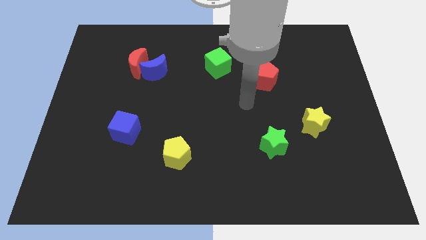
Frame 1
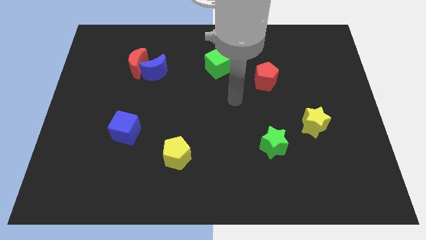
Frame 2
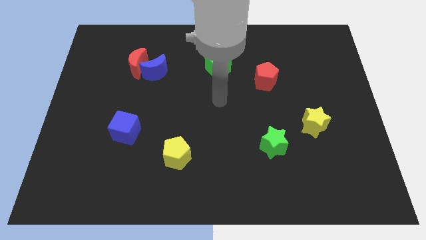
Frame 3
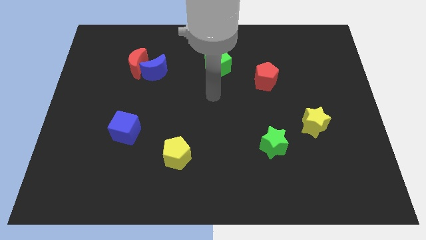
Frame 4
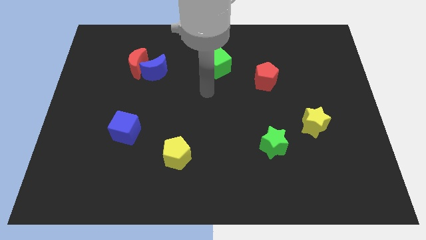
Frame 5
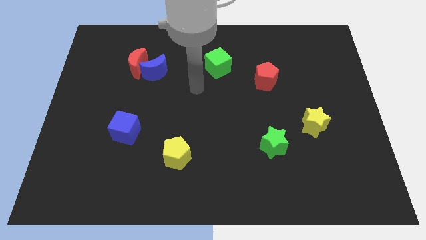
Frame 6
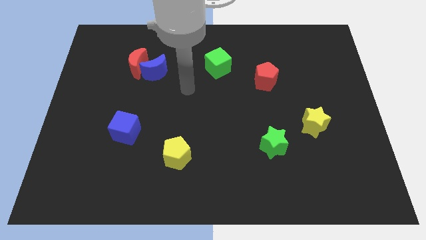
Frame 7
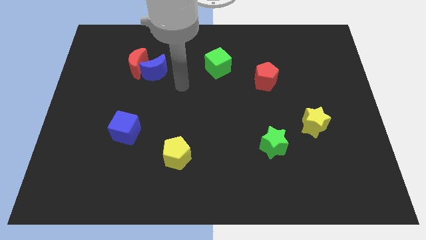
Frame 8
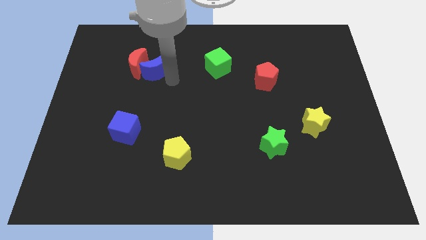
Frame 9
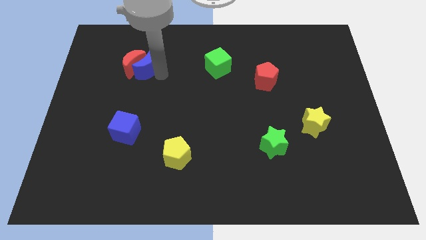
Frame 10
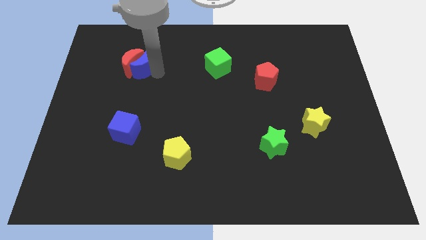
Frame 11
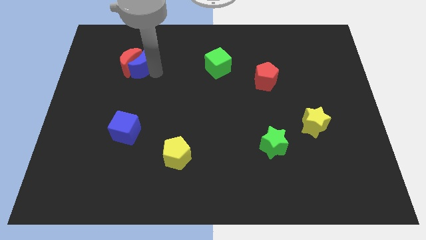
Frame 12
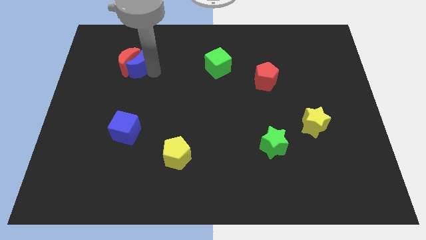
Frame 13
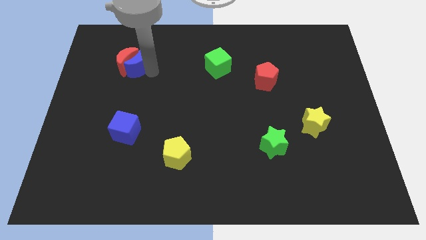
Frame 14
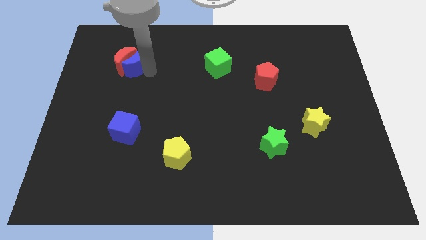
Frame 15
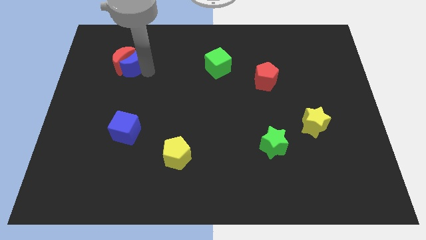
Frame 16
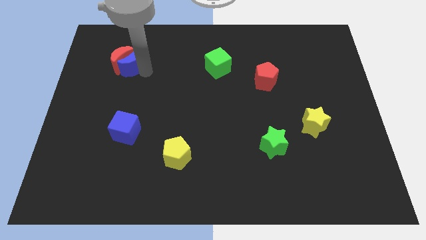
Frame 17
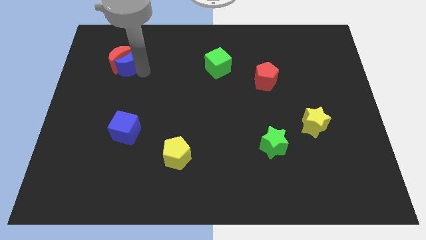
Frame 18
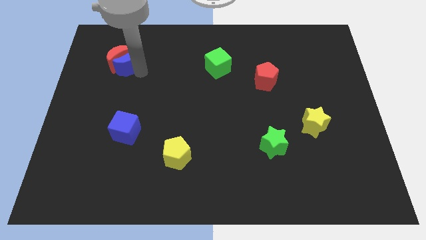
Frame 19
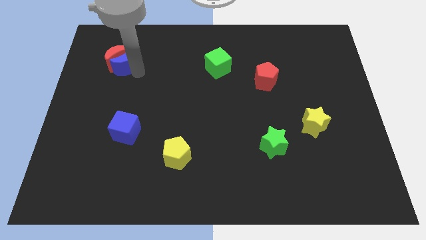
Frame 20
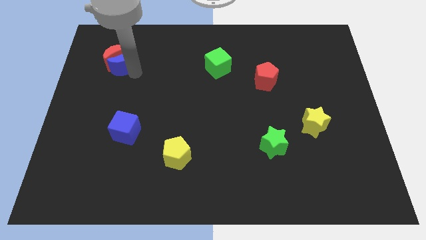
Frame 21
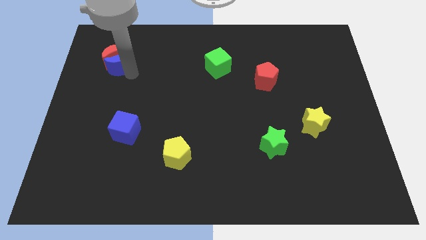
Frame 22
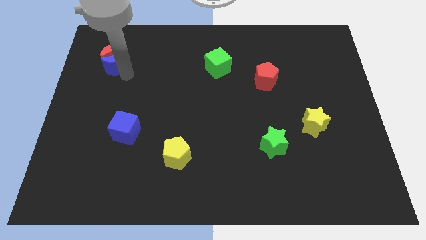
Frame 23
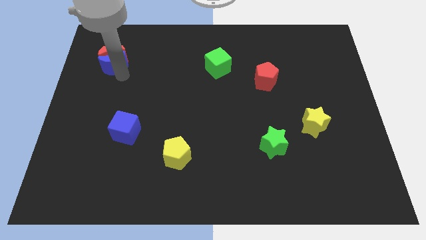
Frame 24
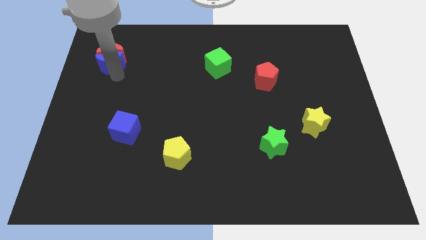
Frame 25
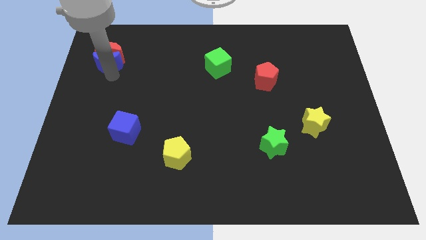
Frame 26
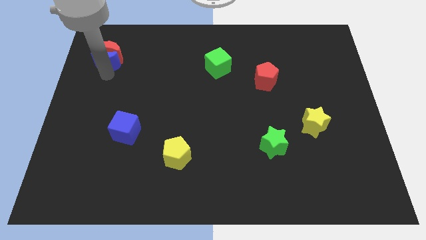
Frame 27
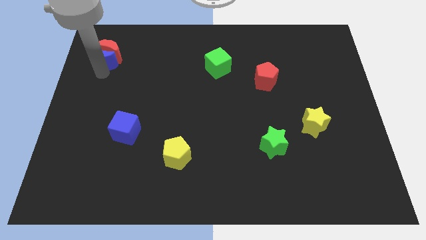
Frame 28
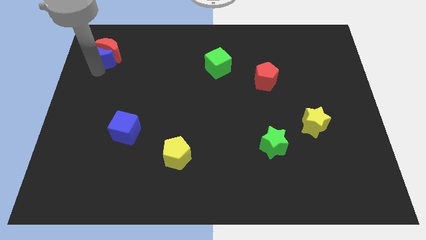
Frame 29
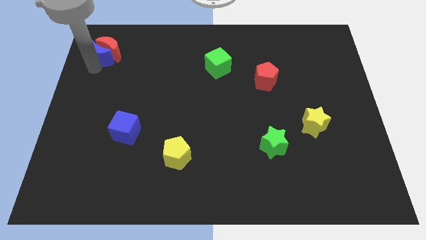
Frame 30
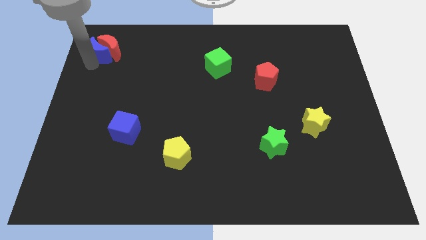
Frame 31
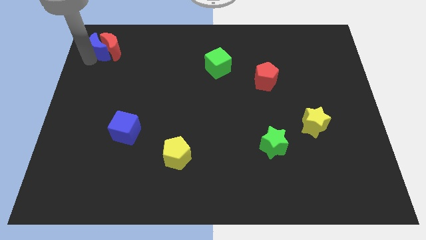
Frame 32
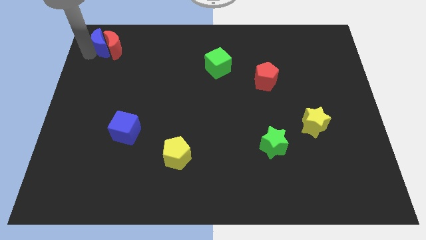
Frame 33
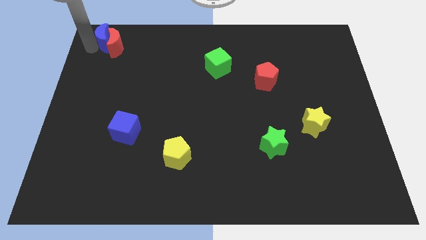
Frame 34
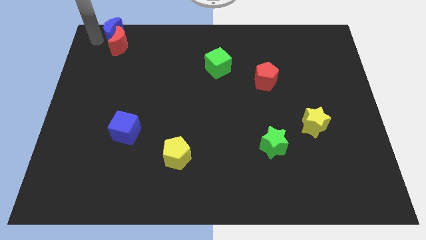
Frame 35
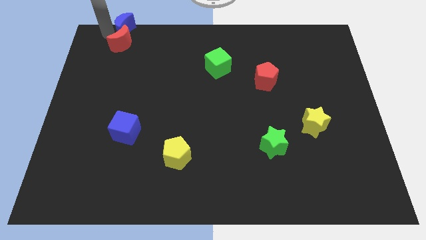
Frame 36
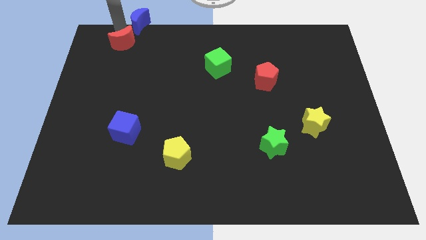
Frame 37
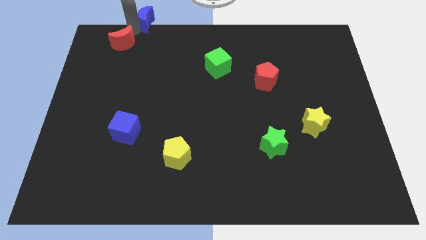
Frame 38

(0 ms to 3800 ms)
move the red moon away from the blue moon

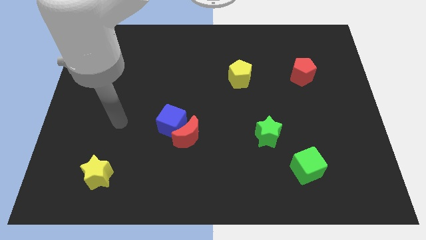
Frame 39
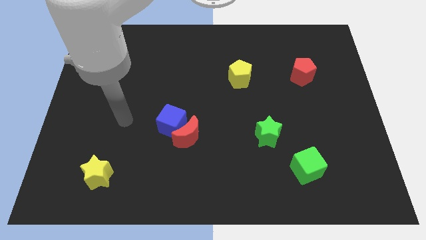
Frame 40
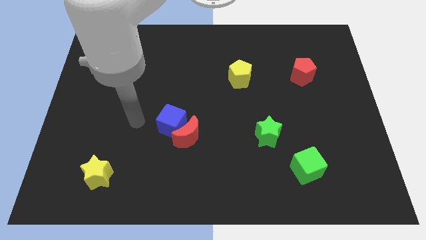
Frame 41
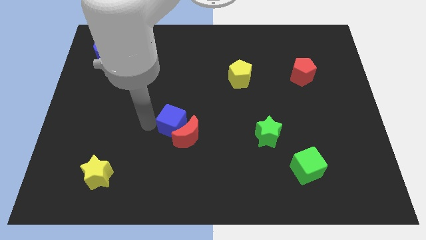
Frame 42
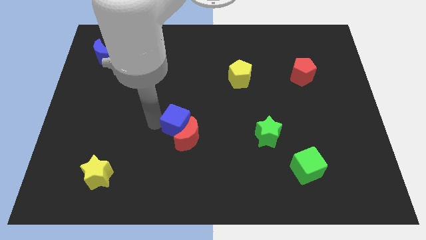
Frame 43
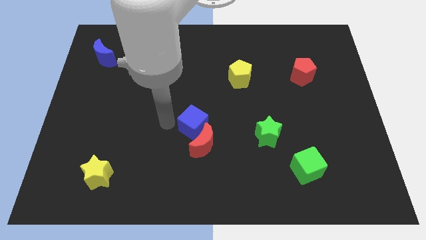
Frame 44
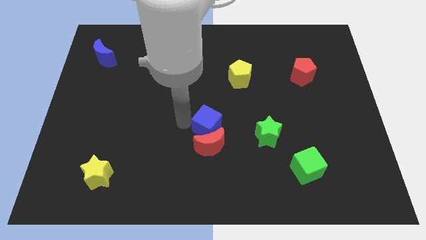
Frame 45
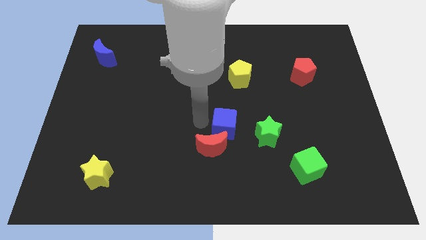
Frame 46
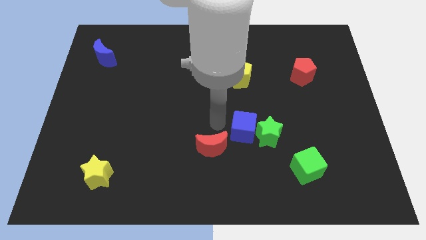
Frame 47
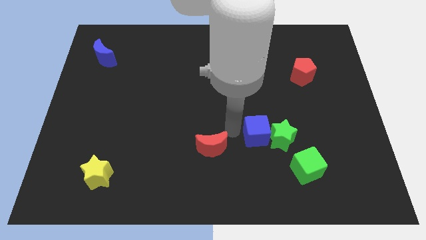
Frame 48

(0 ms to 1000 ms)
separate the red moon from the blue cube

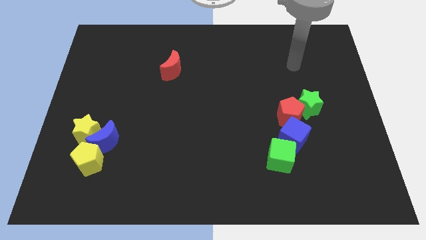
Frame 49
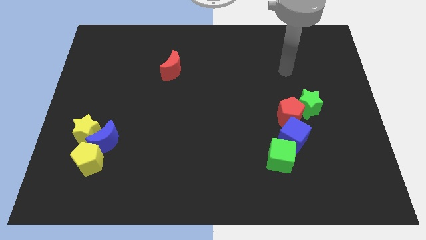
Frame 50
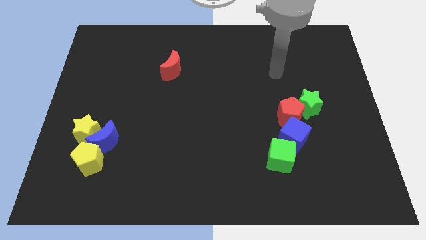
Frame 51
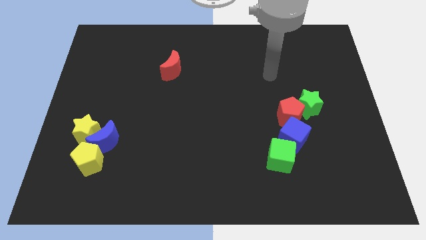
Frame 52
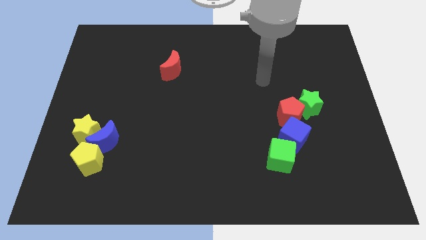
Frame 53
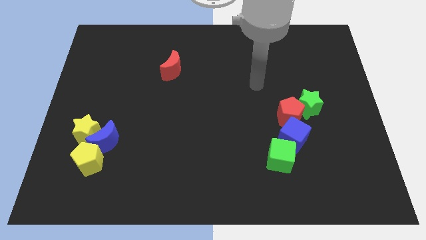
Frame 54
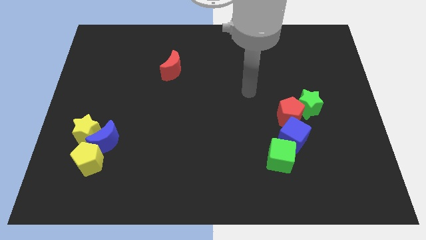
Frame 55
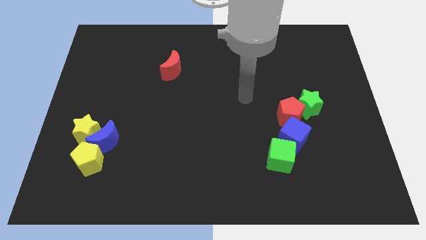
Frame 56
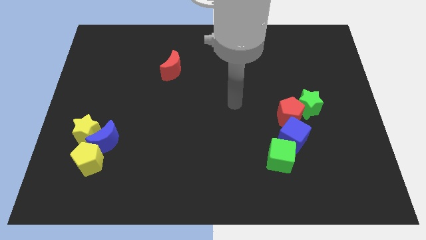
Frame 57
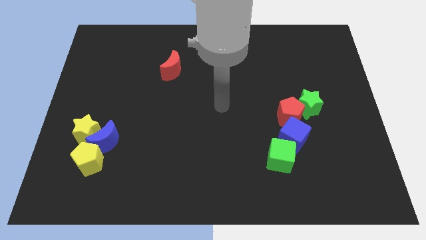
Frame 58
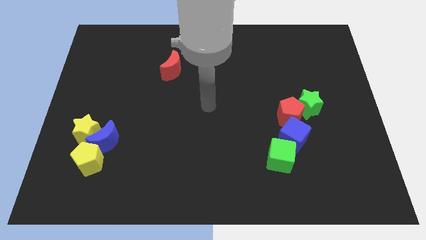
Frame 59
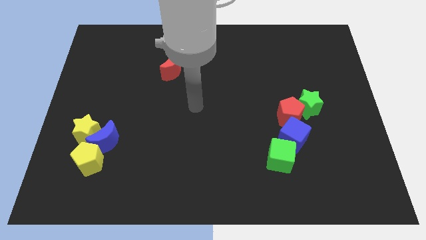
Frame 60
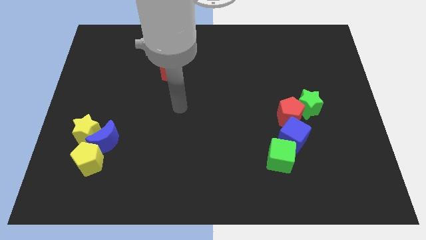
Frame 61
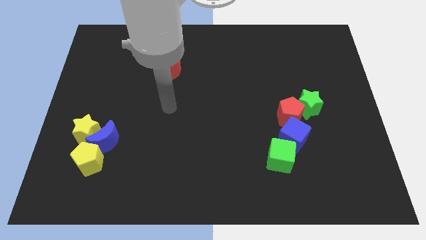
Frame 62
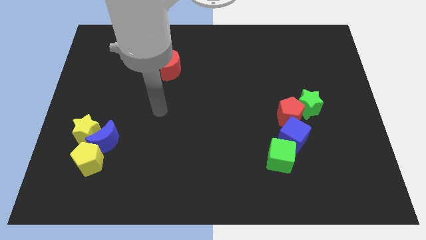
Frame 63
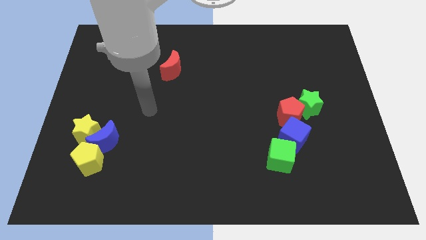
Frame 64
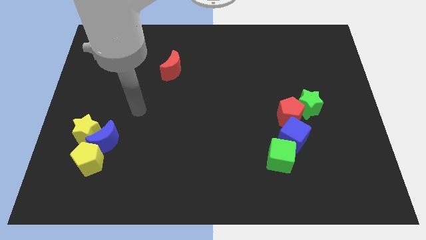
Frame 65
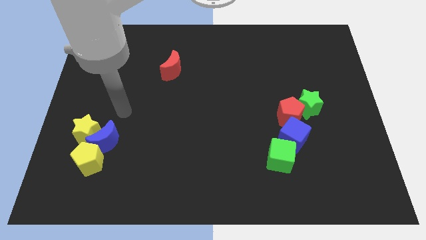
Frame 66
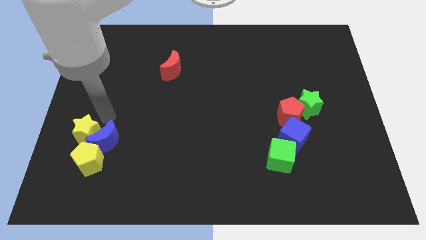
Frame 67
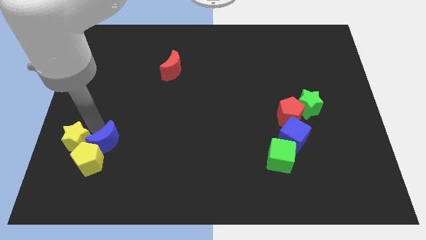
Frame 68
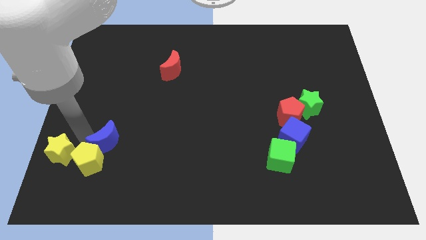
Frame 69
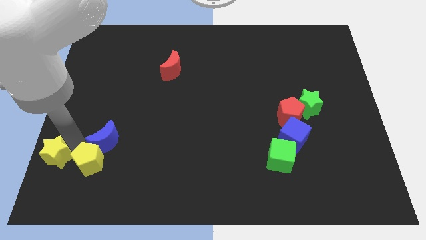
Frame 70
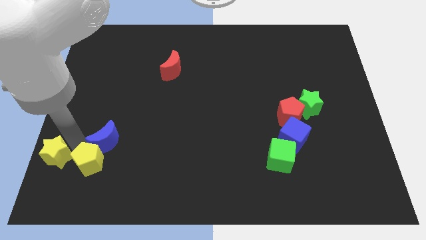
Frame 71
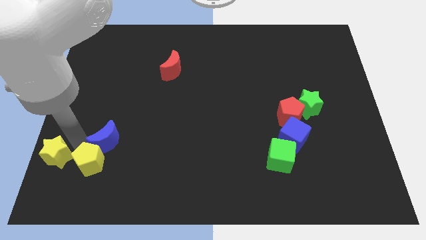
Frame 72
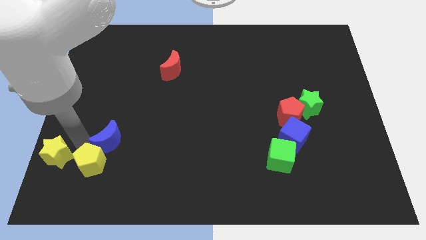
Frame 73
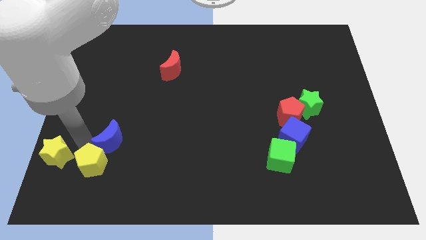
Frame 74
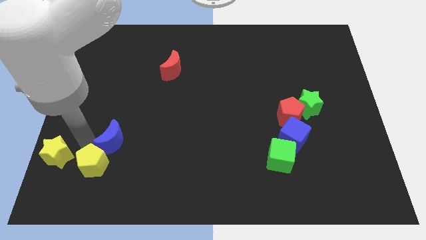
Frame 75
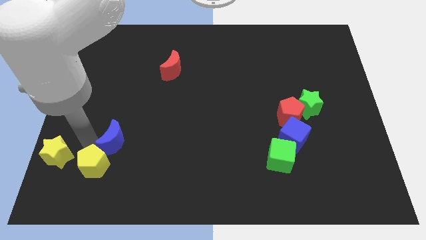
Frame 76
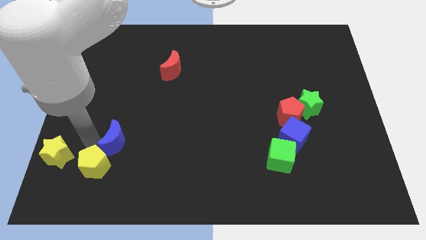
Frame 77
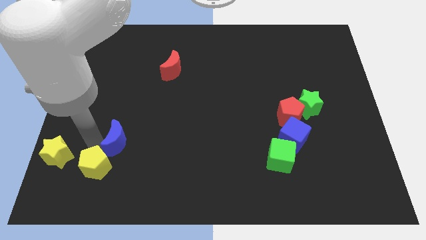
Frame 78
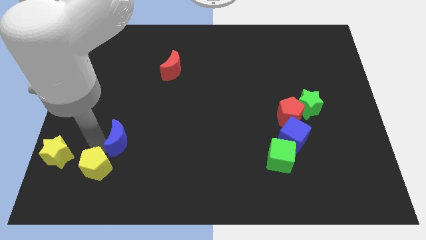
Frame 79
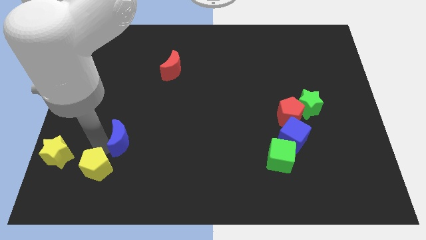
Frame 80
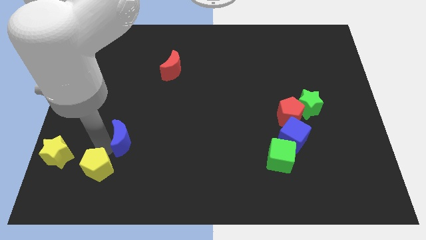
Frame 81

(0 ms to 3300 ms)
separate the blue moon from the yellow star and yellow pentagon

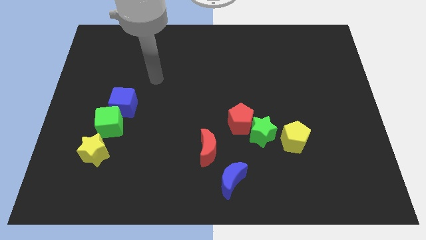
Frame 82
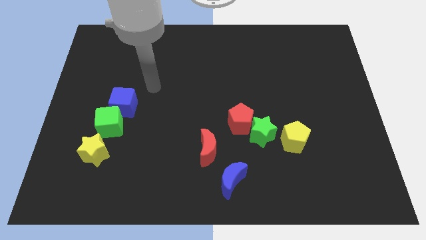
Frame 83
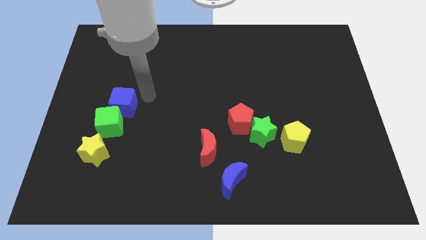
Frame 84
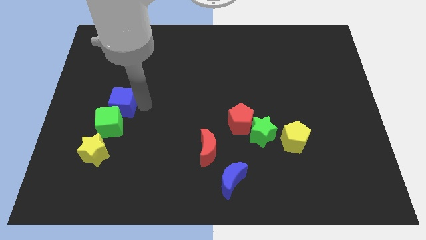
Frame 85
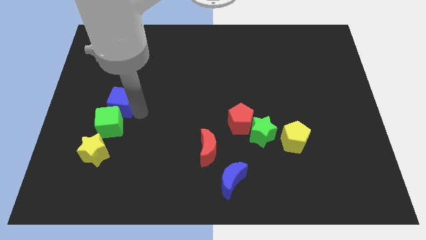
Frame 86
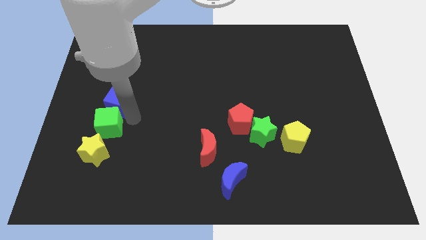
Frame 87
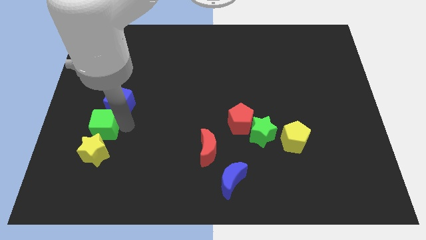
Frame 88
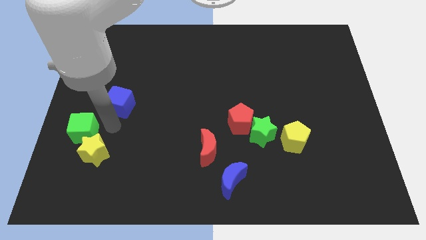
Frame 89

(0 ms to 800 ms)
pull the blue cube apart from the green cube

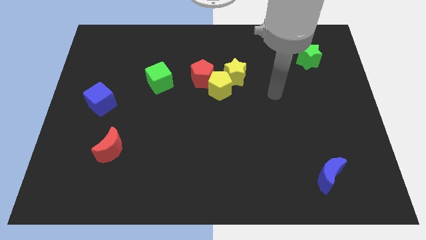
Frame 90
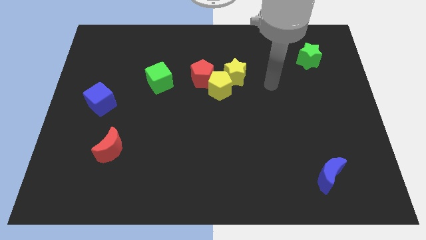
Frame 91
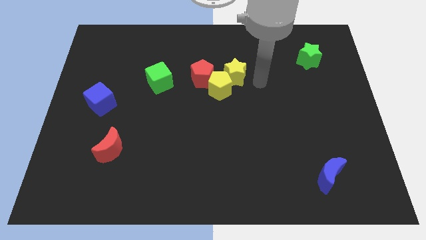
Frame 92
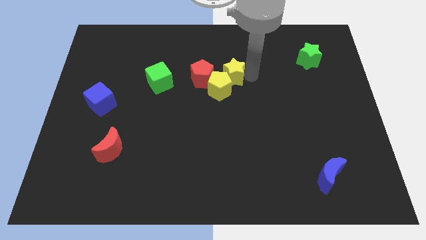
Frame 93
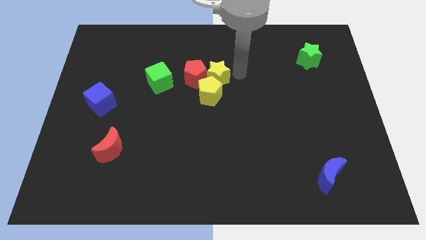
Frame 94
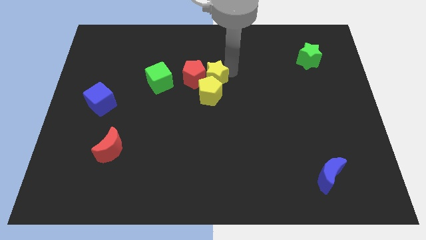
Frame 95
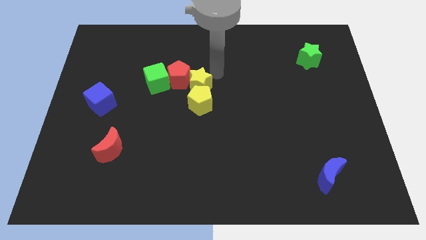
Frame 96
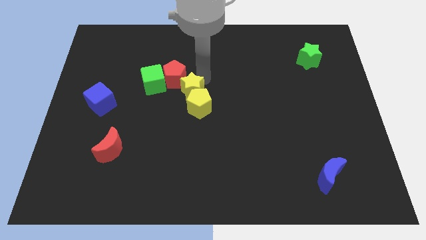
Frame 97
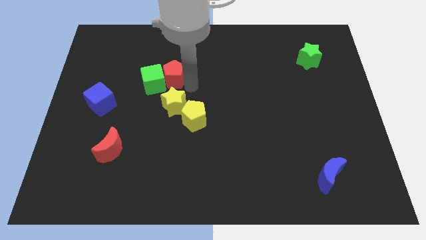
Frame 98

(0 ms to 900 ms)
pull the yellow pentagon apart from the red pentagon and yellow star
